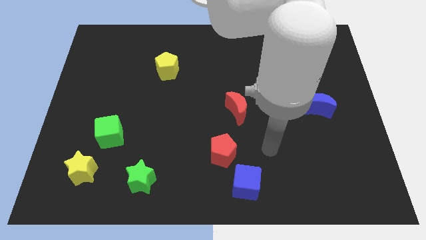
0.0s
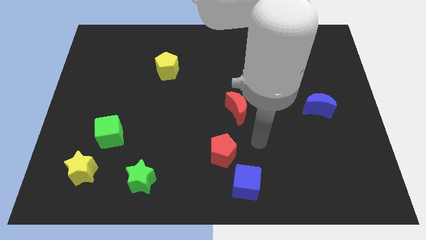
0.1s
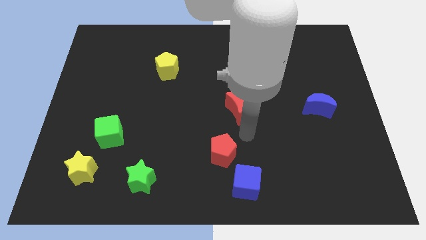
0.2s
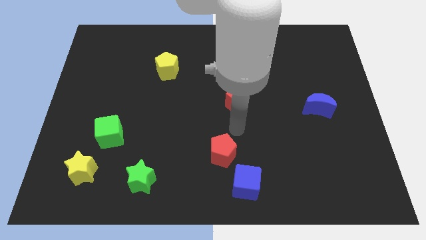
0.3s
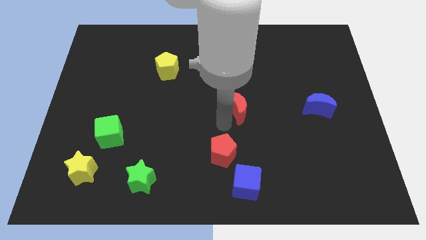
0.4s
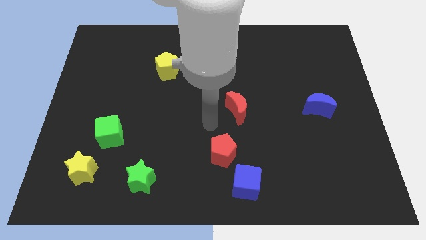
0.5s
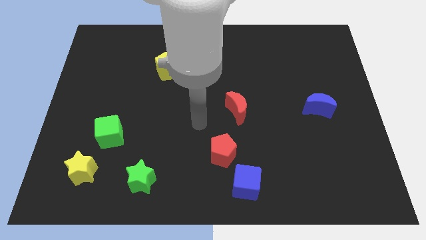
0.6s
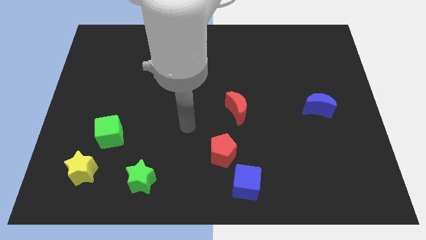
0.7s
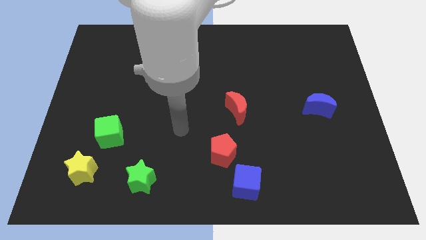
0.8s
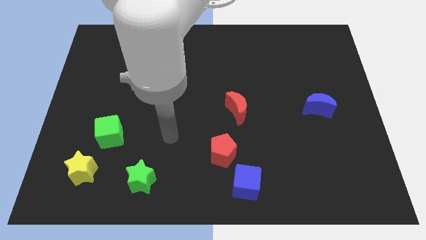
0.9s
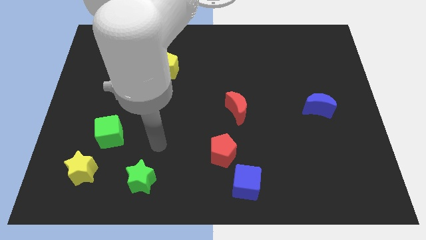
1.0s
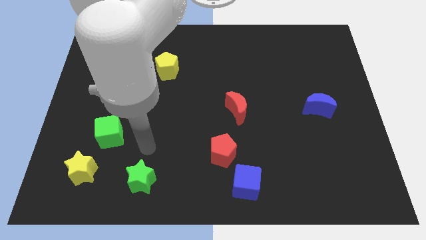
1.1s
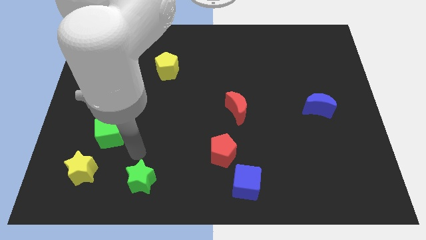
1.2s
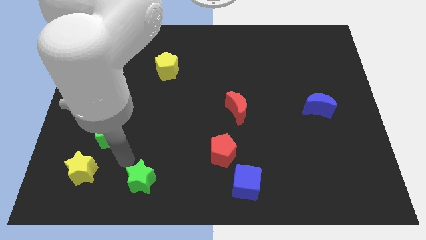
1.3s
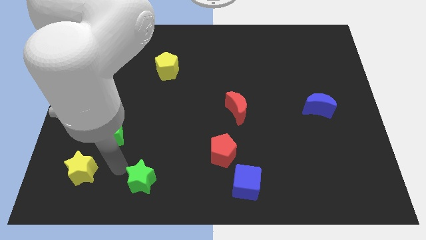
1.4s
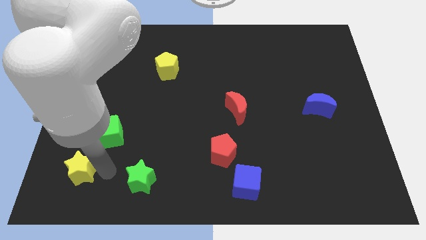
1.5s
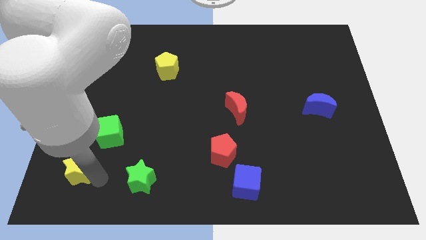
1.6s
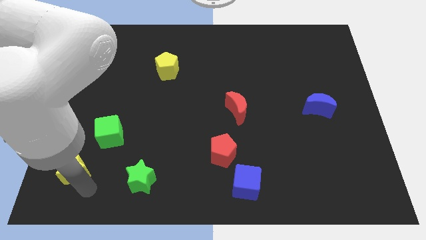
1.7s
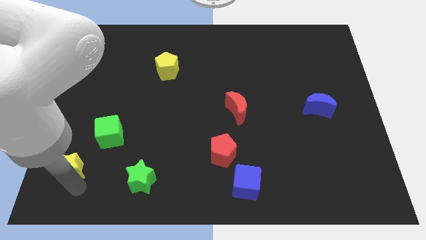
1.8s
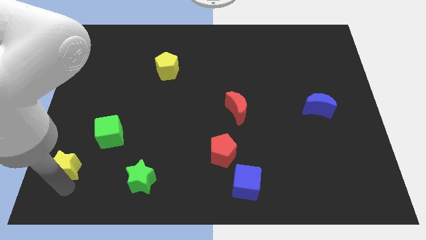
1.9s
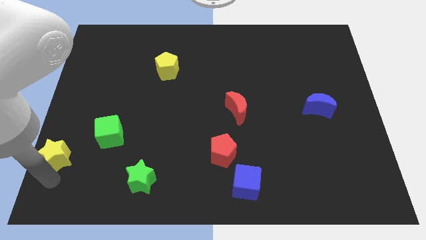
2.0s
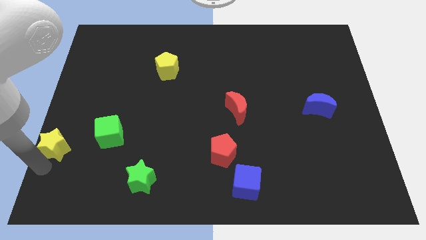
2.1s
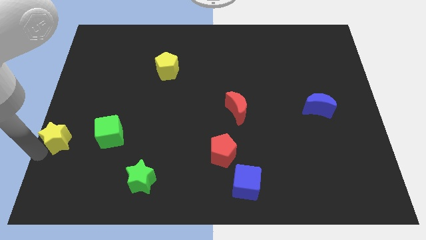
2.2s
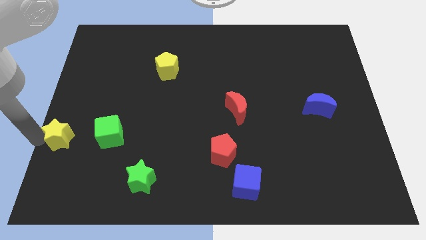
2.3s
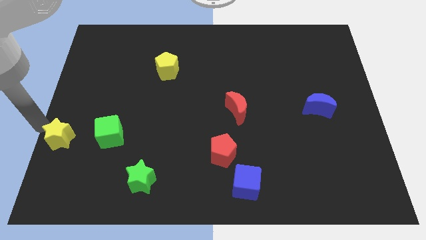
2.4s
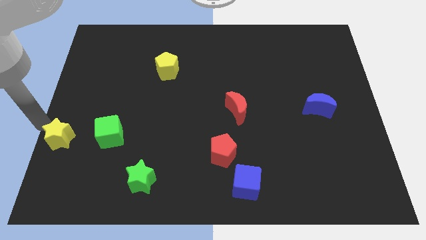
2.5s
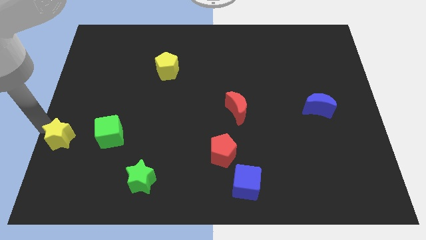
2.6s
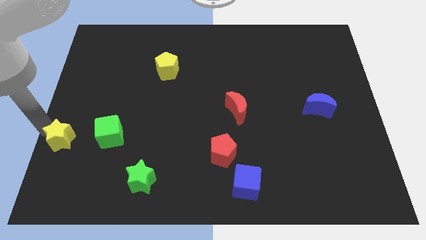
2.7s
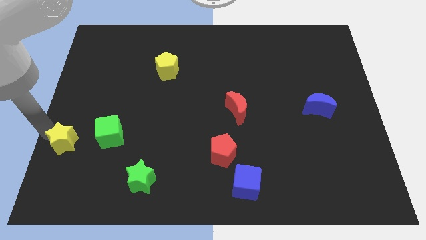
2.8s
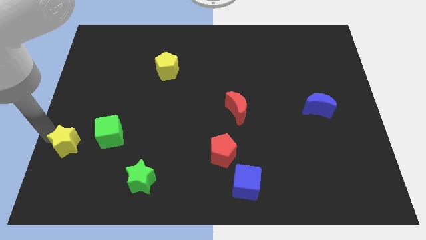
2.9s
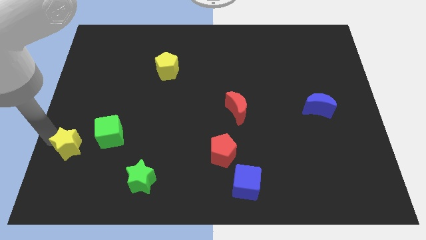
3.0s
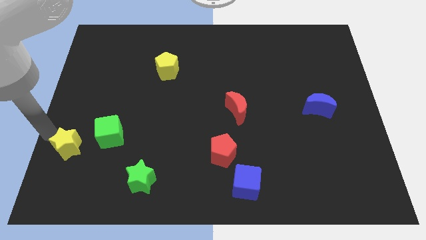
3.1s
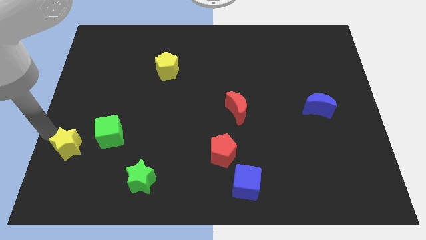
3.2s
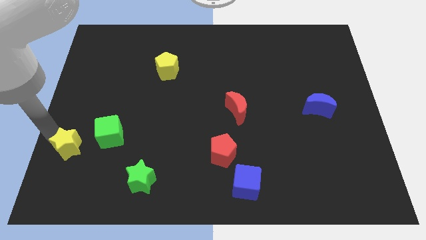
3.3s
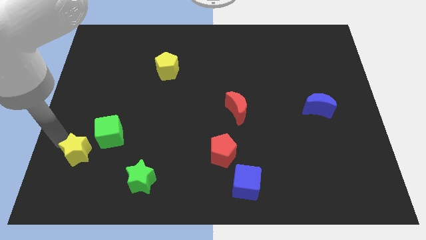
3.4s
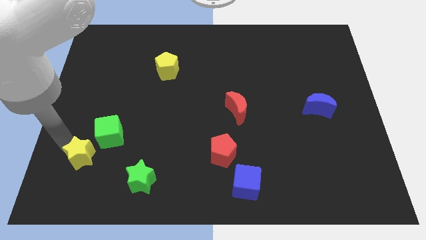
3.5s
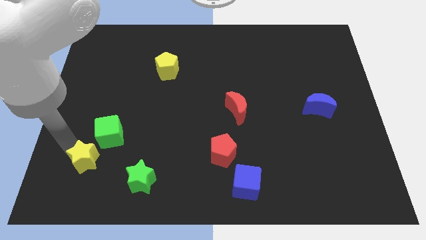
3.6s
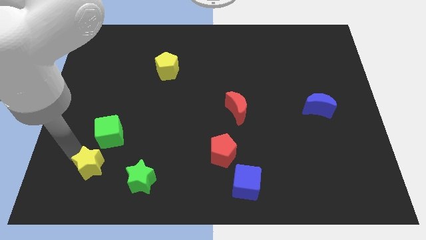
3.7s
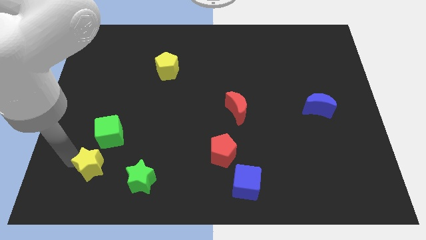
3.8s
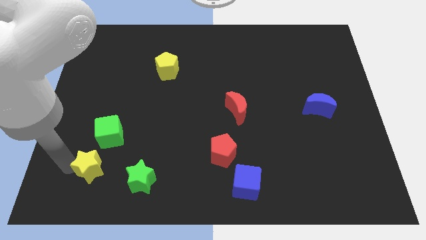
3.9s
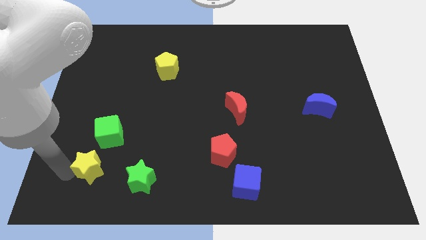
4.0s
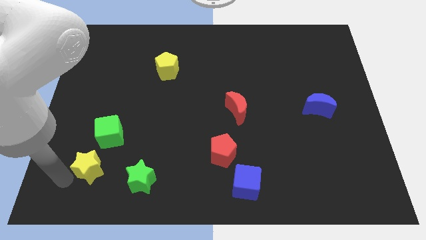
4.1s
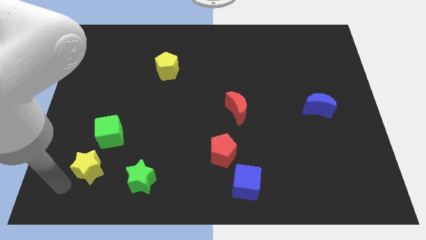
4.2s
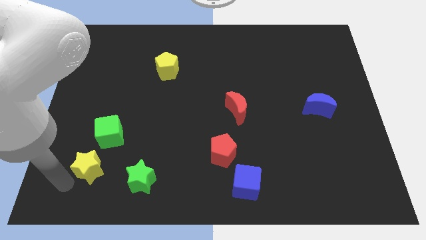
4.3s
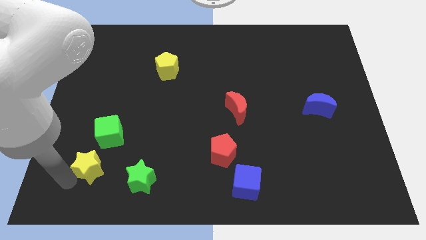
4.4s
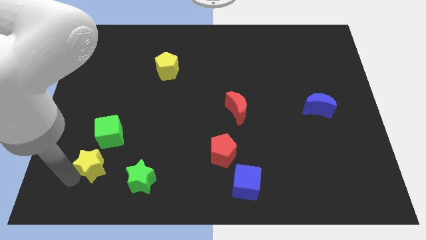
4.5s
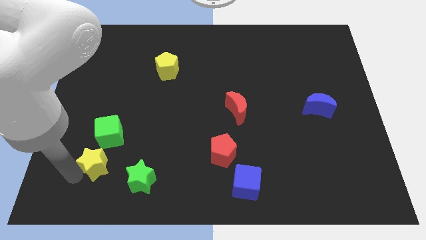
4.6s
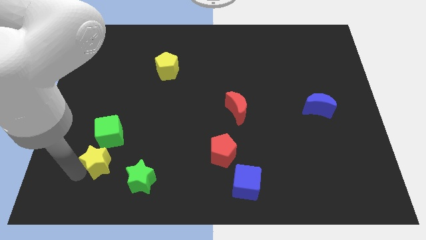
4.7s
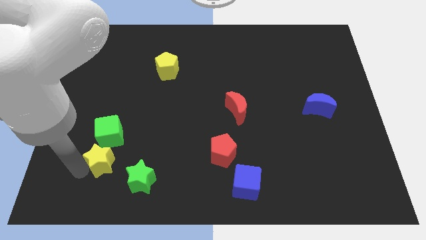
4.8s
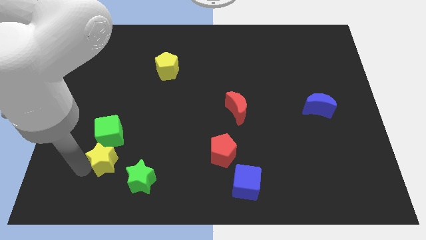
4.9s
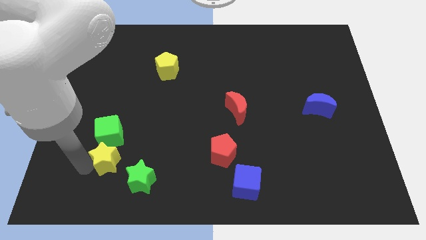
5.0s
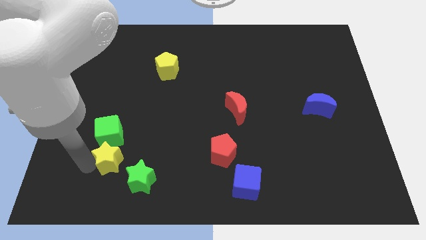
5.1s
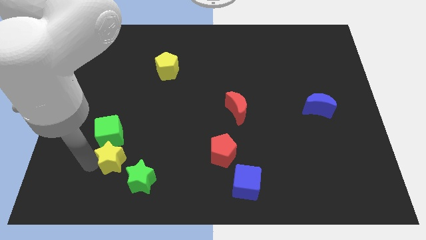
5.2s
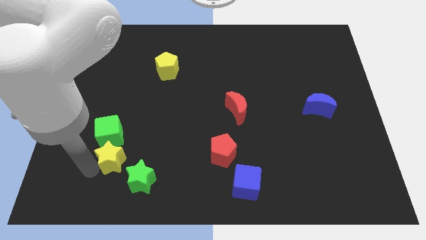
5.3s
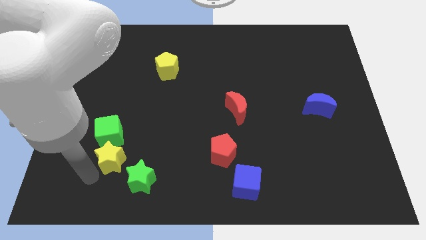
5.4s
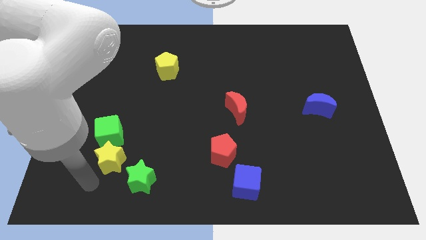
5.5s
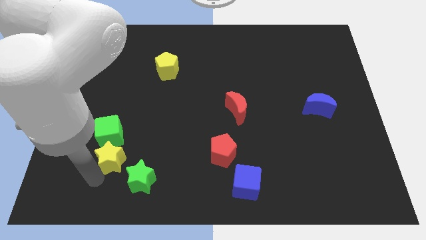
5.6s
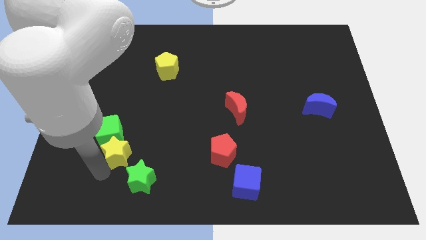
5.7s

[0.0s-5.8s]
push the yellow star a little up and then to the right

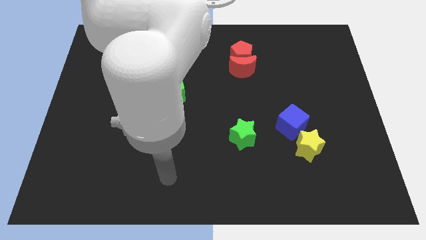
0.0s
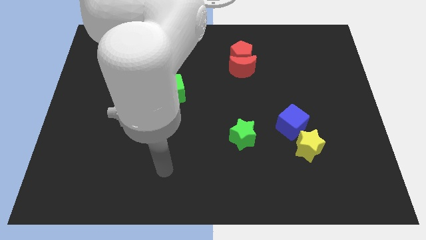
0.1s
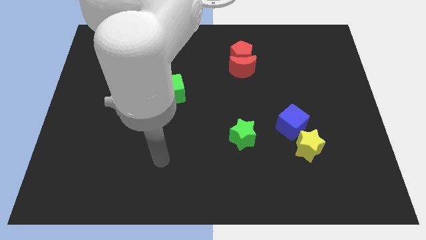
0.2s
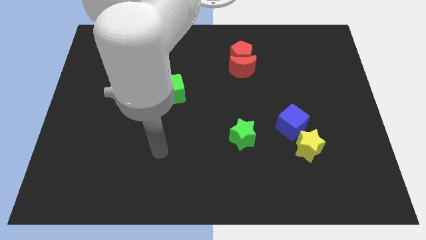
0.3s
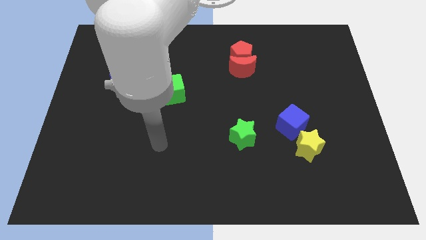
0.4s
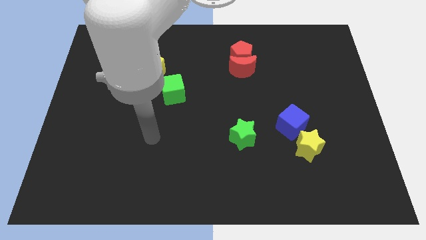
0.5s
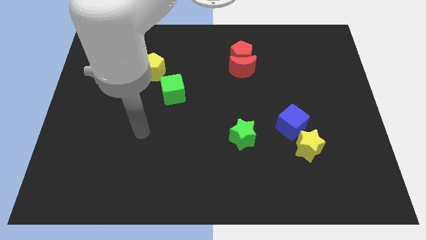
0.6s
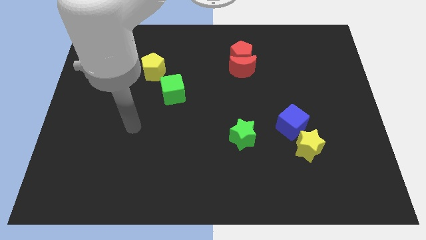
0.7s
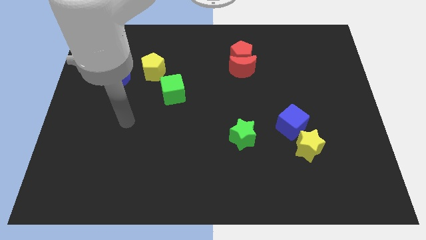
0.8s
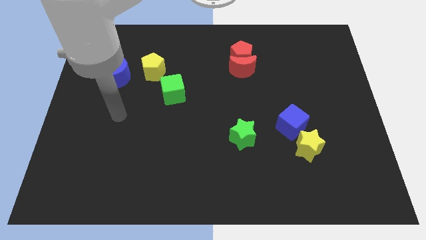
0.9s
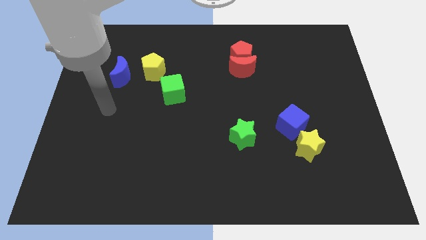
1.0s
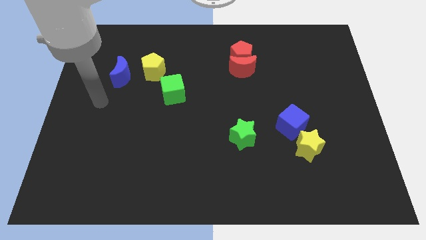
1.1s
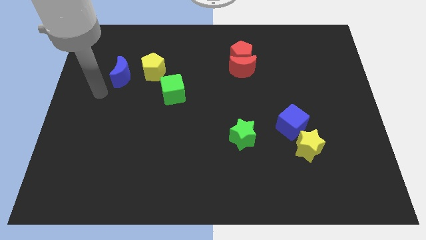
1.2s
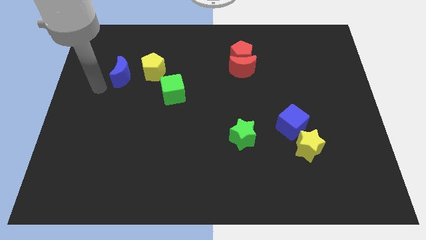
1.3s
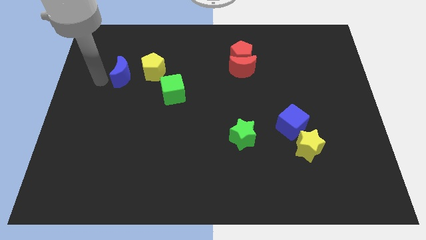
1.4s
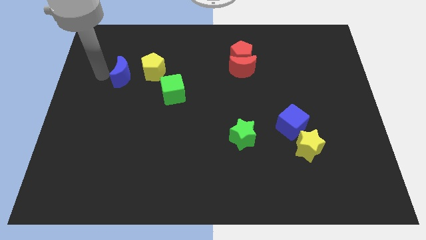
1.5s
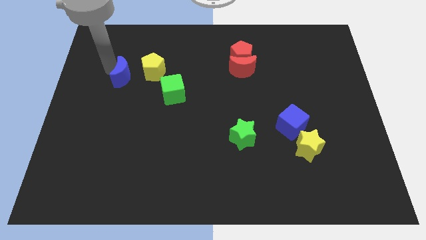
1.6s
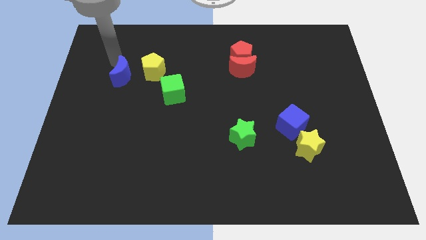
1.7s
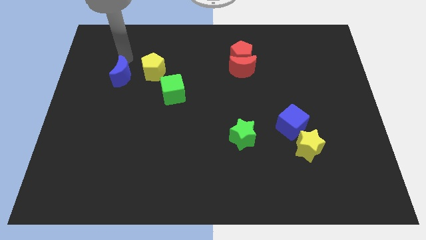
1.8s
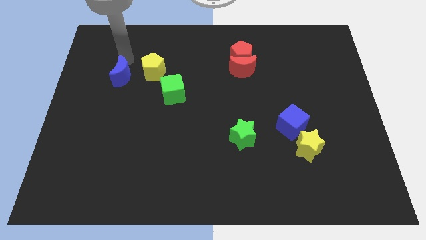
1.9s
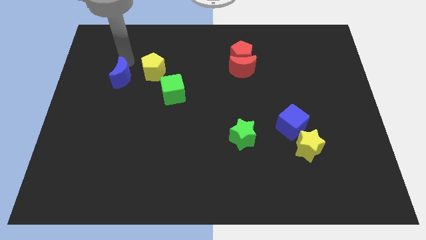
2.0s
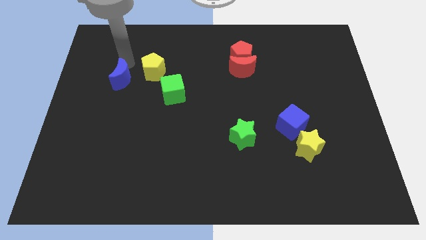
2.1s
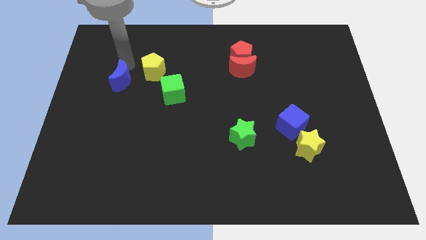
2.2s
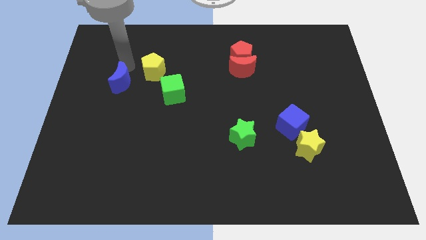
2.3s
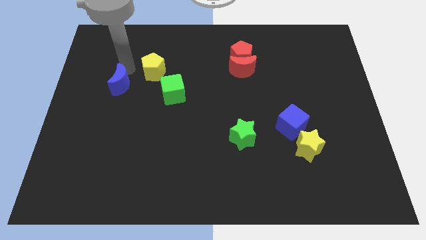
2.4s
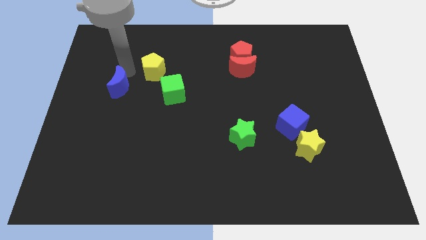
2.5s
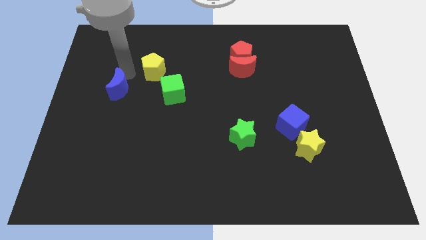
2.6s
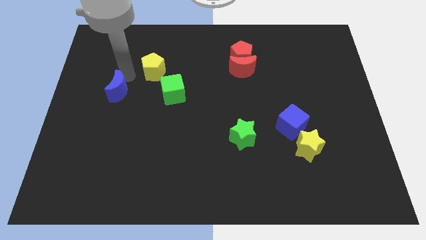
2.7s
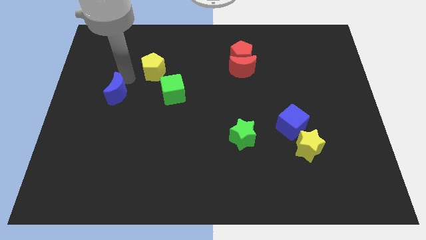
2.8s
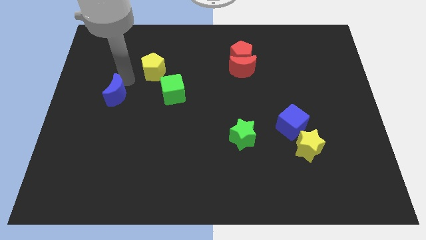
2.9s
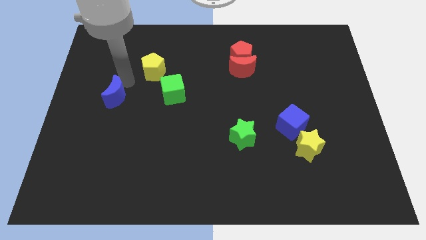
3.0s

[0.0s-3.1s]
slide the blue moon downwards somewhat
